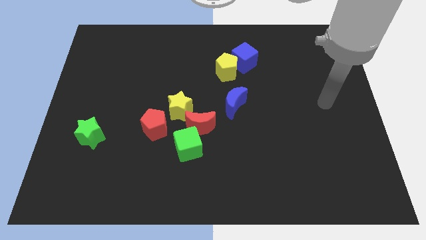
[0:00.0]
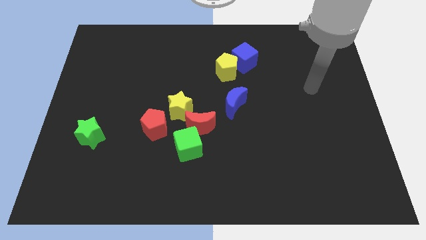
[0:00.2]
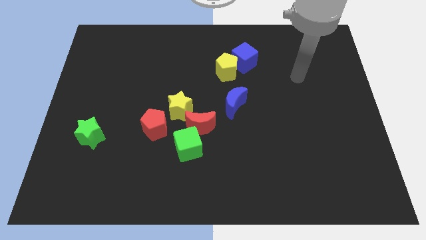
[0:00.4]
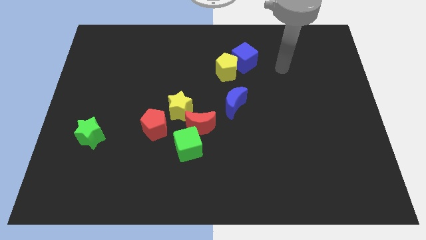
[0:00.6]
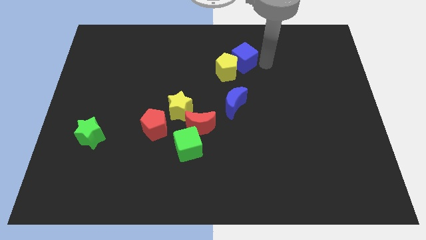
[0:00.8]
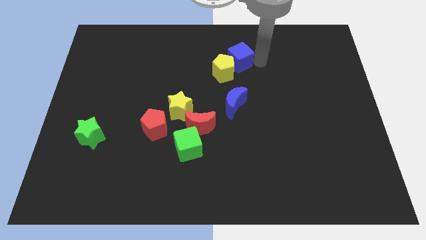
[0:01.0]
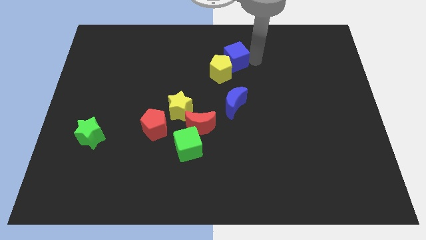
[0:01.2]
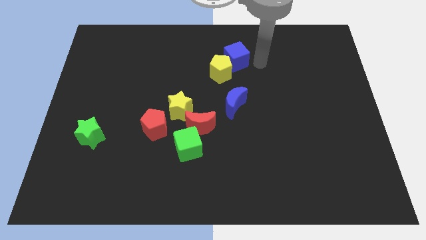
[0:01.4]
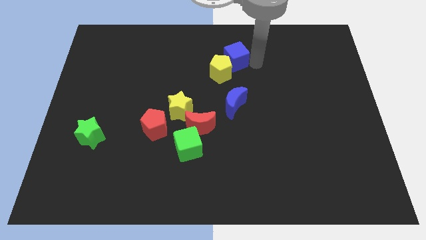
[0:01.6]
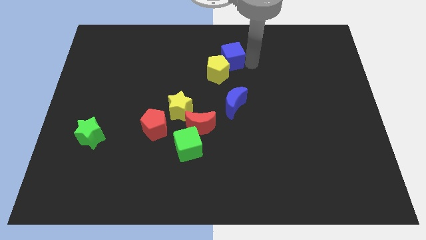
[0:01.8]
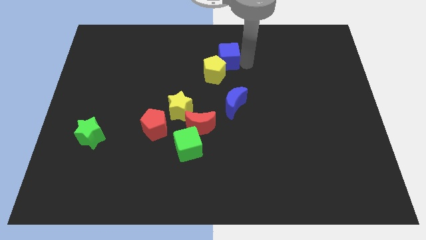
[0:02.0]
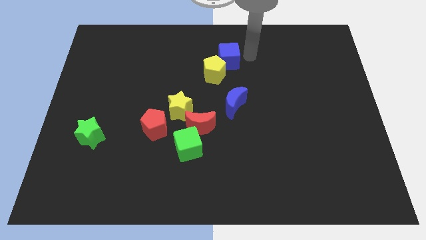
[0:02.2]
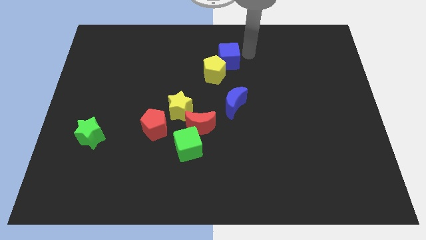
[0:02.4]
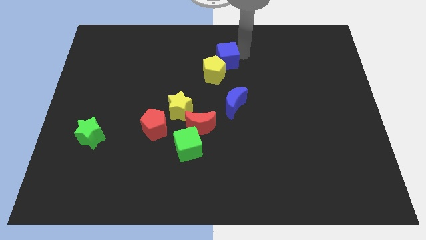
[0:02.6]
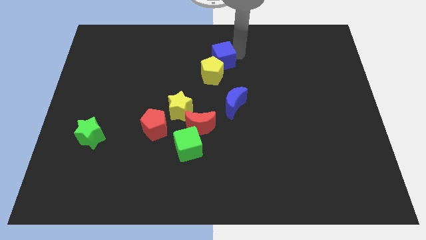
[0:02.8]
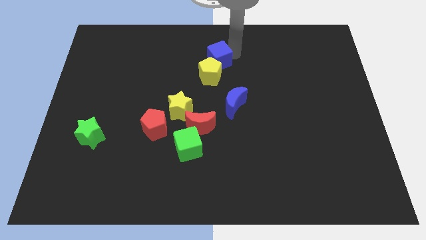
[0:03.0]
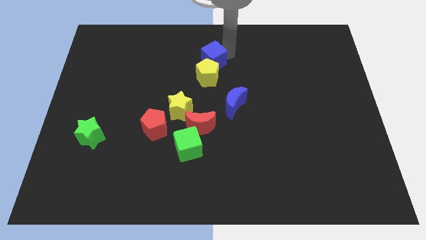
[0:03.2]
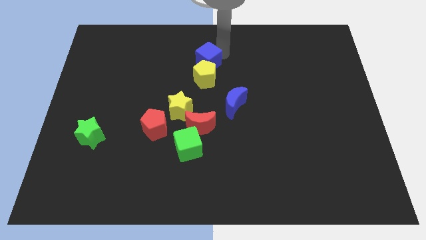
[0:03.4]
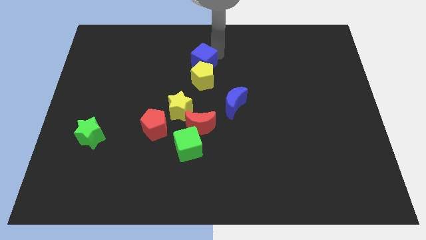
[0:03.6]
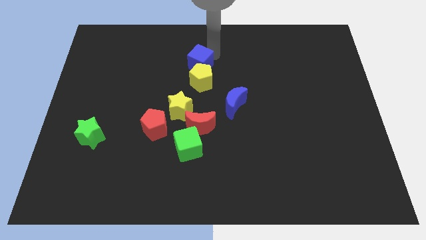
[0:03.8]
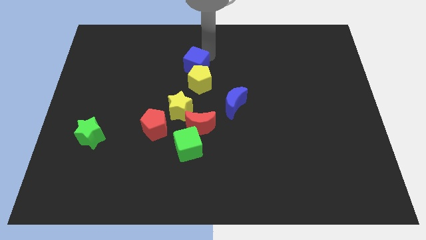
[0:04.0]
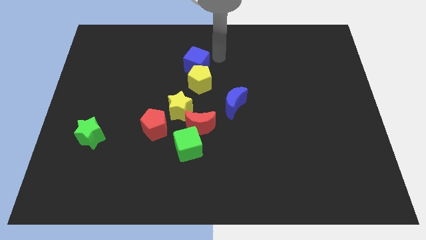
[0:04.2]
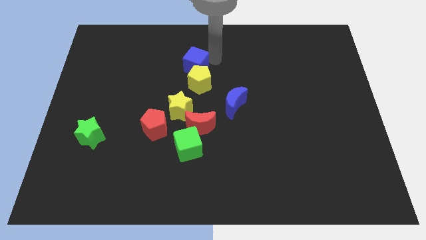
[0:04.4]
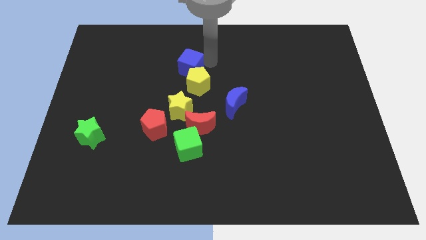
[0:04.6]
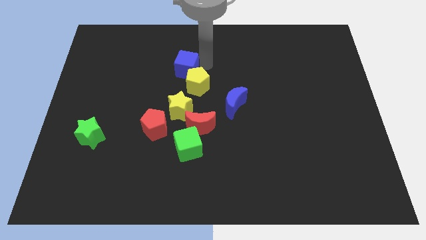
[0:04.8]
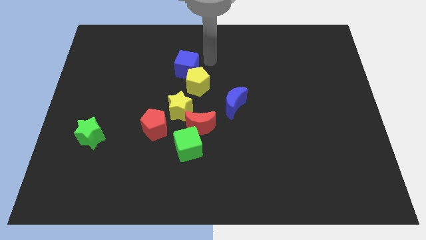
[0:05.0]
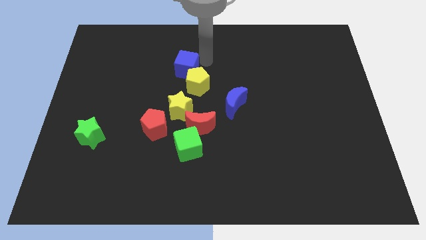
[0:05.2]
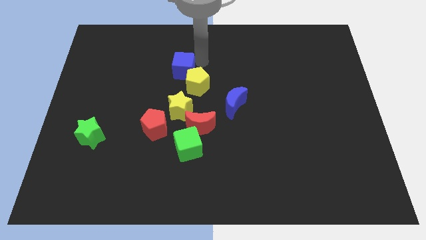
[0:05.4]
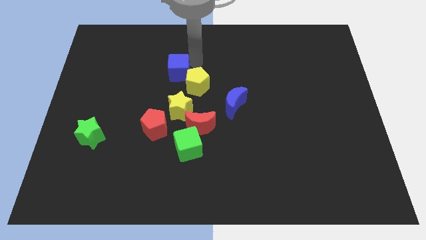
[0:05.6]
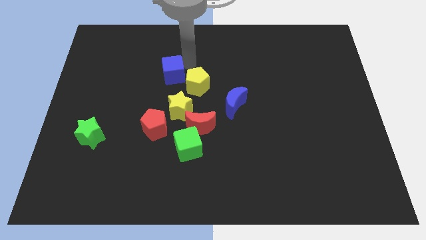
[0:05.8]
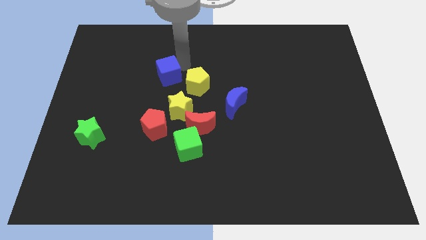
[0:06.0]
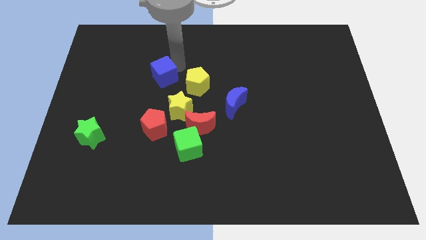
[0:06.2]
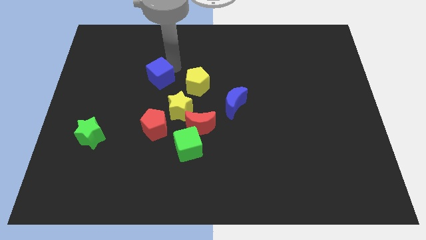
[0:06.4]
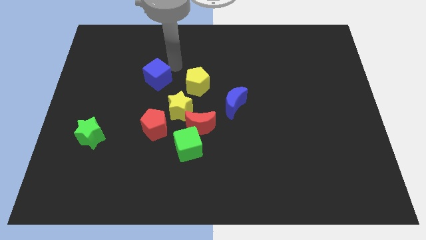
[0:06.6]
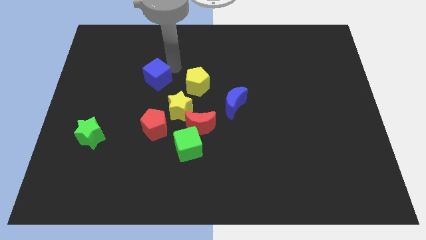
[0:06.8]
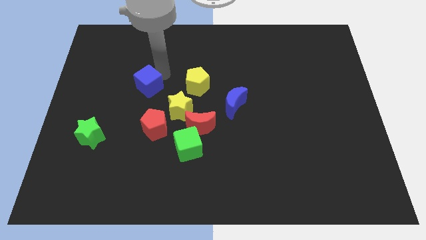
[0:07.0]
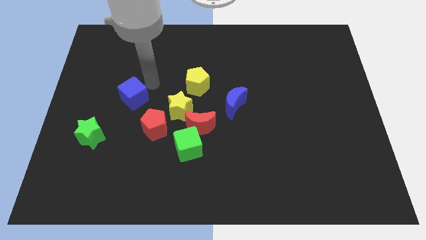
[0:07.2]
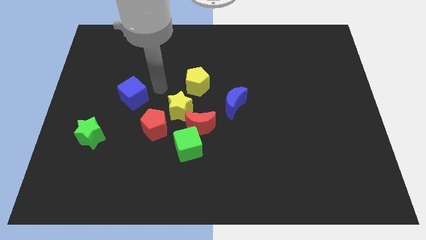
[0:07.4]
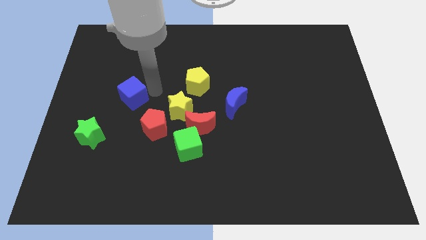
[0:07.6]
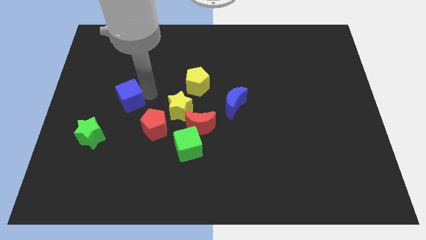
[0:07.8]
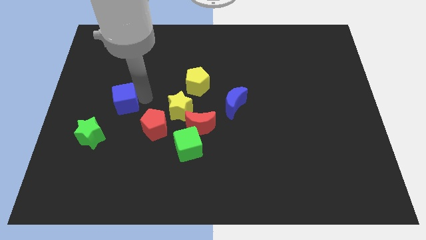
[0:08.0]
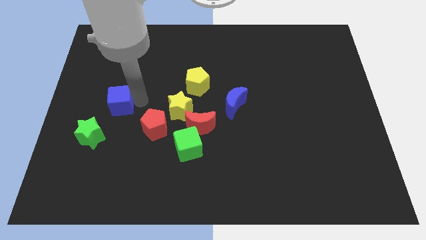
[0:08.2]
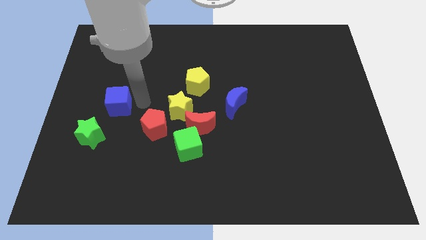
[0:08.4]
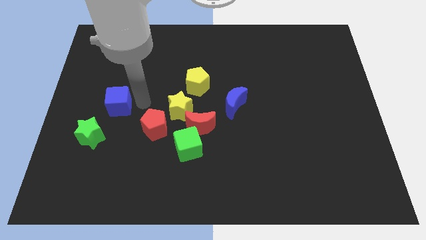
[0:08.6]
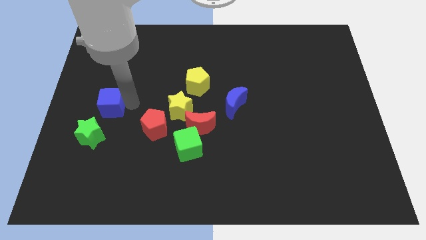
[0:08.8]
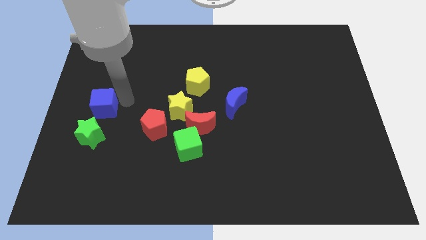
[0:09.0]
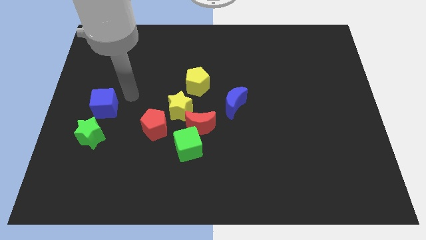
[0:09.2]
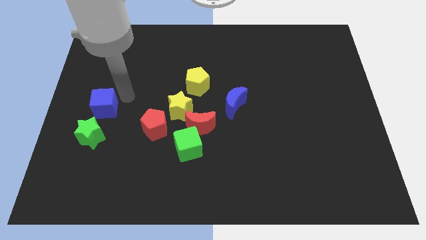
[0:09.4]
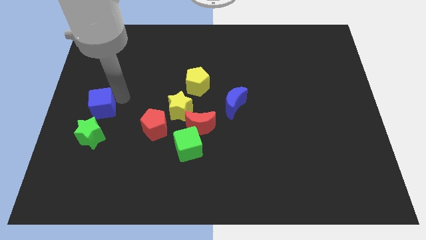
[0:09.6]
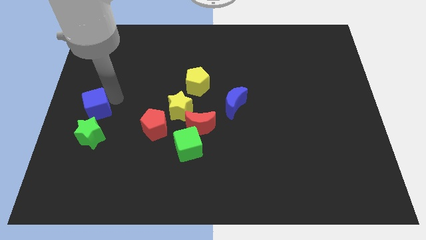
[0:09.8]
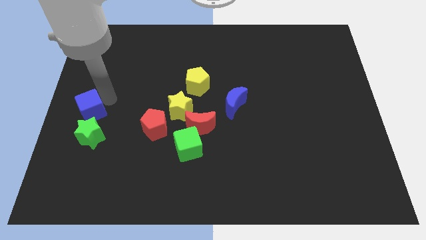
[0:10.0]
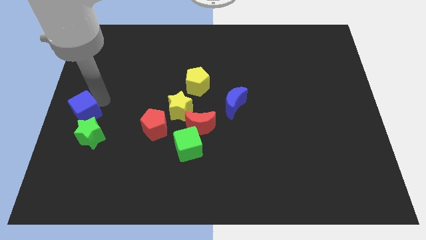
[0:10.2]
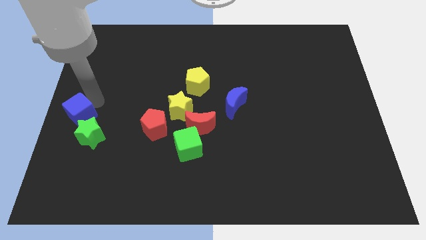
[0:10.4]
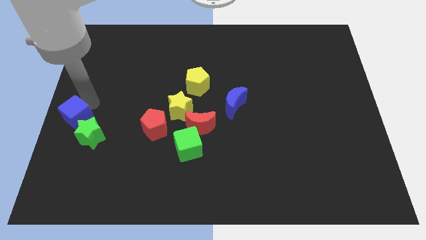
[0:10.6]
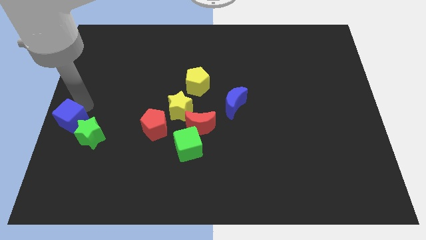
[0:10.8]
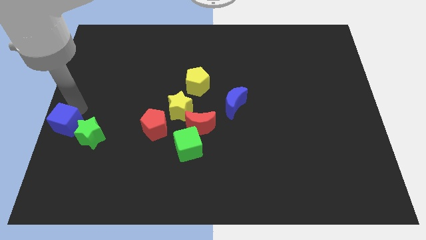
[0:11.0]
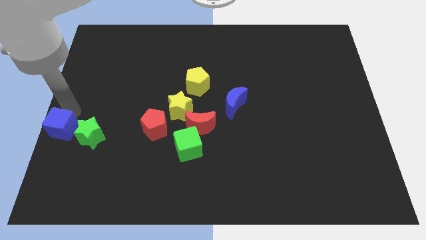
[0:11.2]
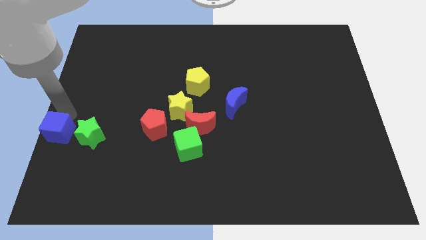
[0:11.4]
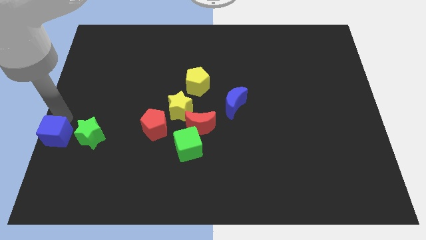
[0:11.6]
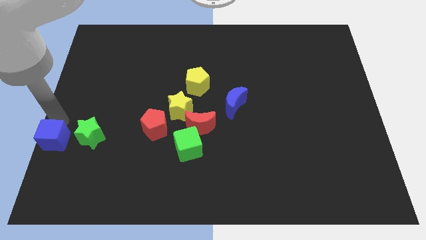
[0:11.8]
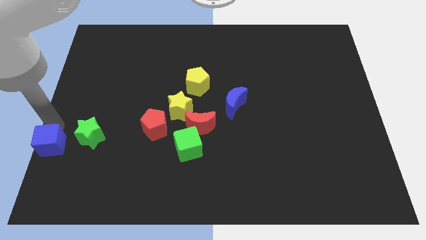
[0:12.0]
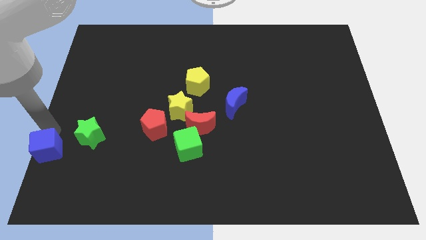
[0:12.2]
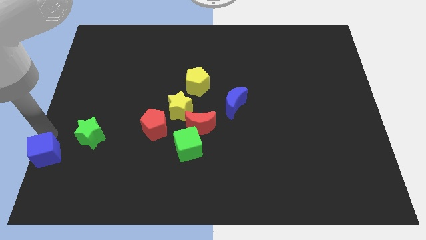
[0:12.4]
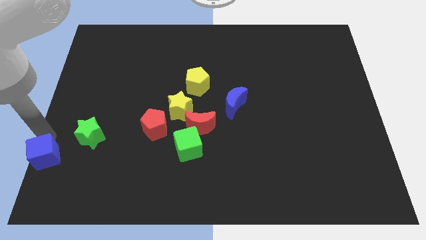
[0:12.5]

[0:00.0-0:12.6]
push the blue cube to the lower left corner

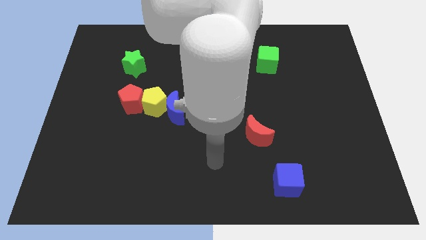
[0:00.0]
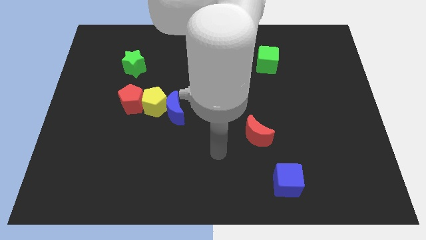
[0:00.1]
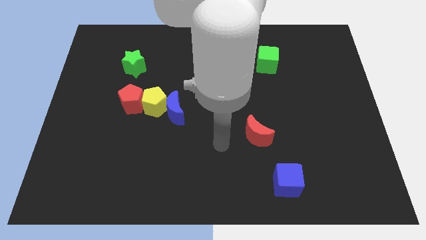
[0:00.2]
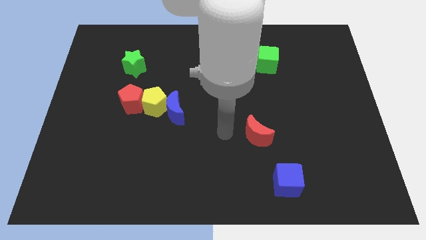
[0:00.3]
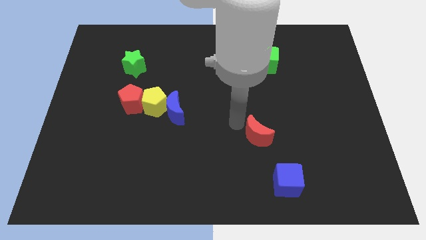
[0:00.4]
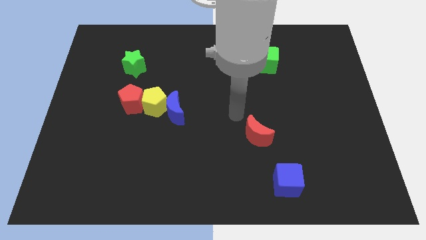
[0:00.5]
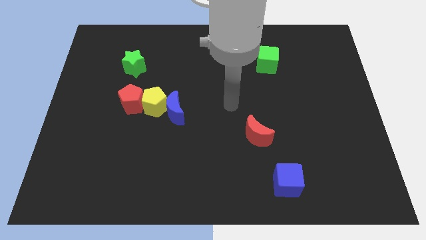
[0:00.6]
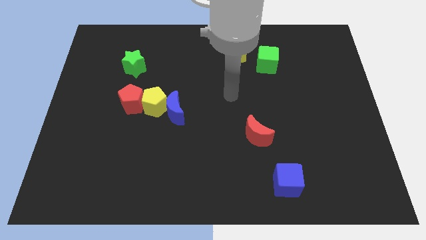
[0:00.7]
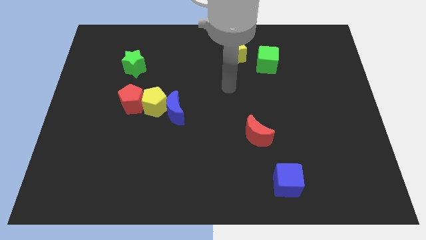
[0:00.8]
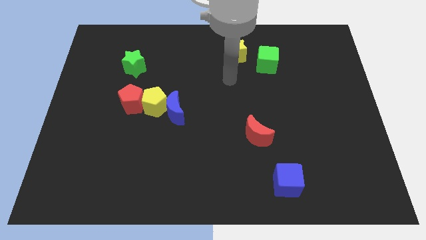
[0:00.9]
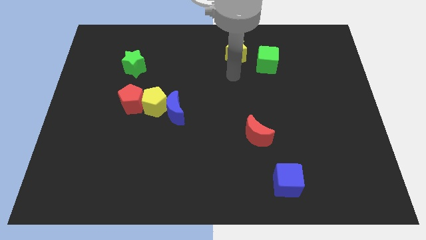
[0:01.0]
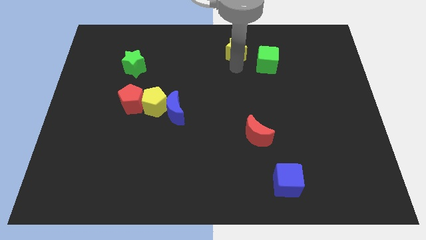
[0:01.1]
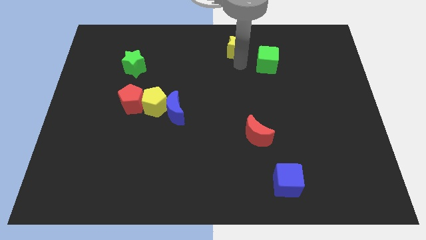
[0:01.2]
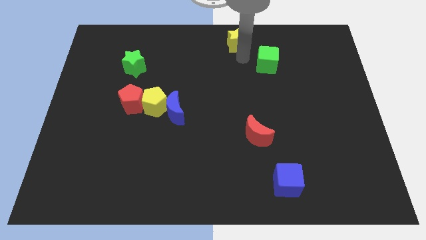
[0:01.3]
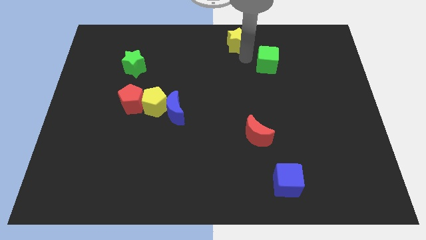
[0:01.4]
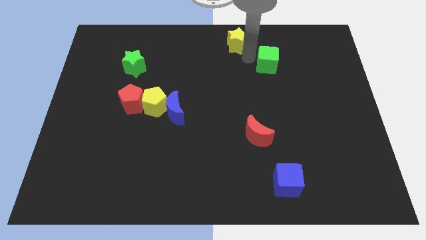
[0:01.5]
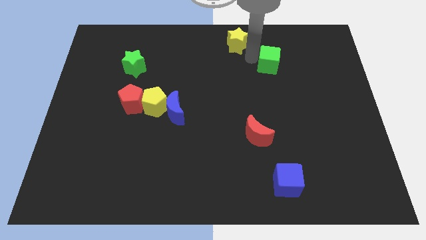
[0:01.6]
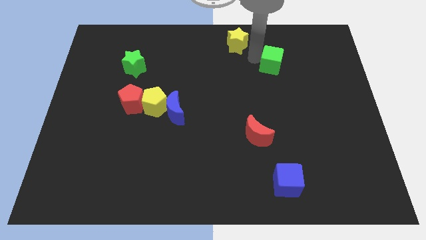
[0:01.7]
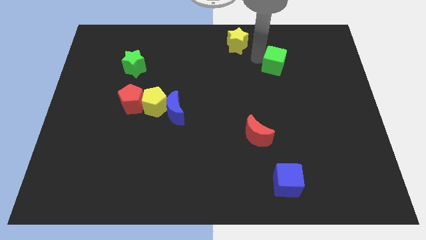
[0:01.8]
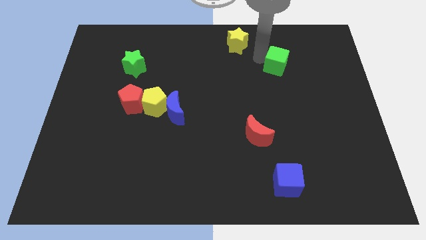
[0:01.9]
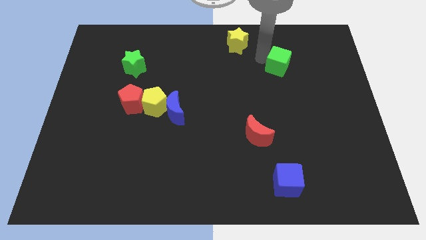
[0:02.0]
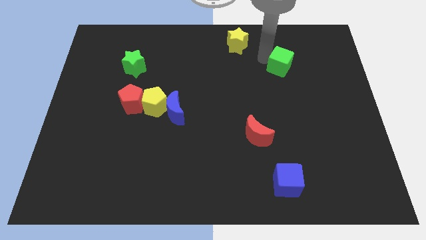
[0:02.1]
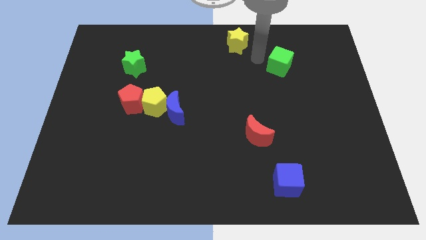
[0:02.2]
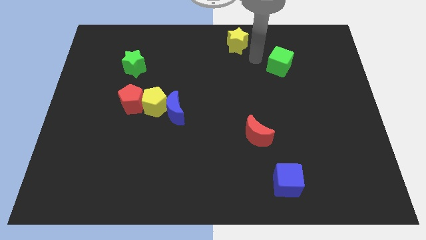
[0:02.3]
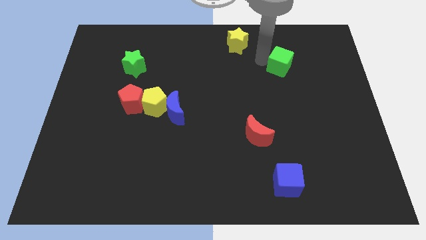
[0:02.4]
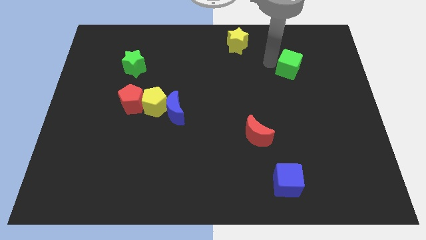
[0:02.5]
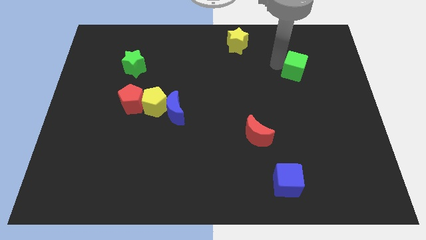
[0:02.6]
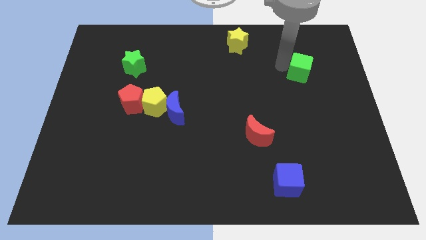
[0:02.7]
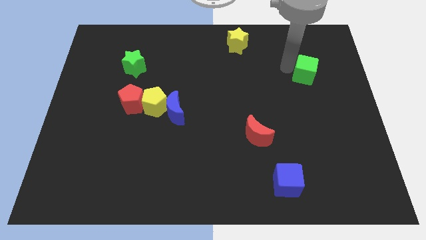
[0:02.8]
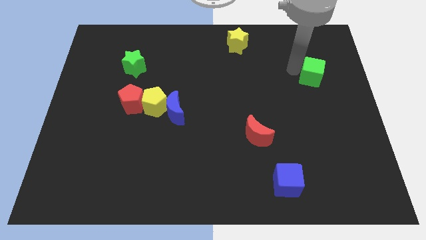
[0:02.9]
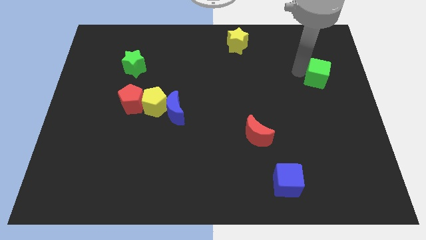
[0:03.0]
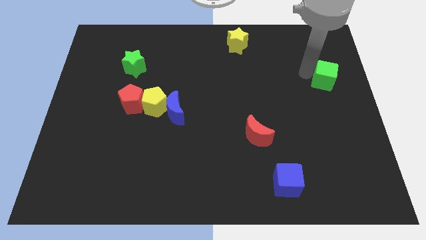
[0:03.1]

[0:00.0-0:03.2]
slide the green cube to the center right
